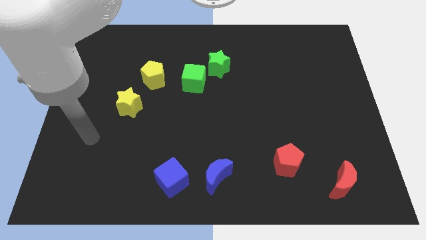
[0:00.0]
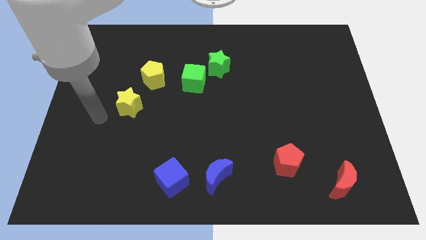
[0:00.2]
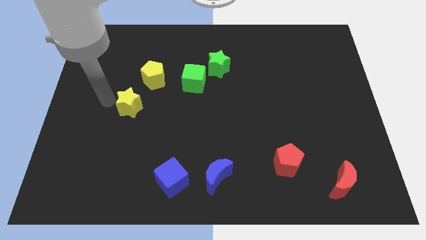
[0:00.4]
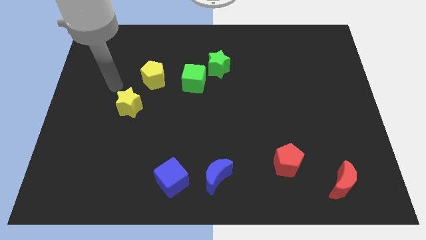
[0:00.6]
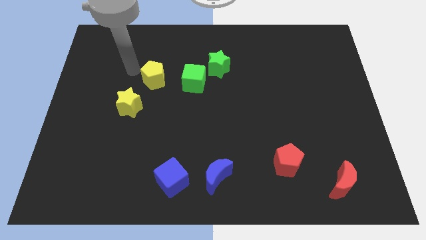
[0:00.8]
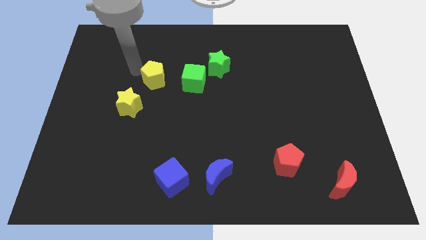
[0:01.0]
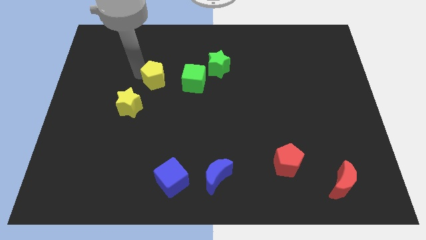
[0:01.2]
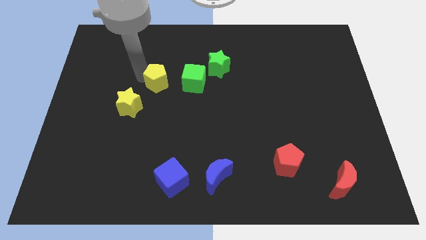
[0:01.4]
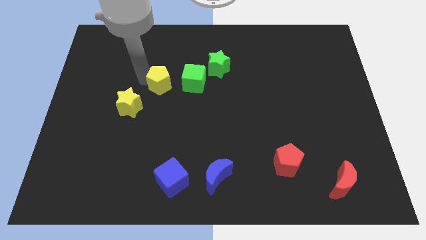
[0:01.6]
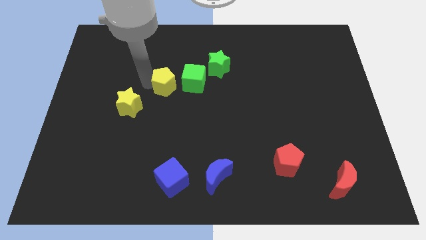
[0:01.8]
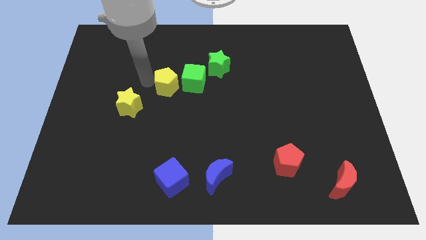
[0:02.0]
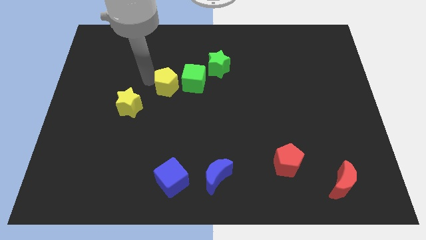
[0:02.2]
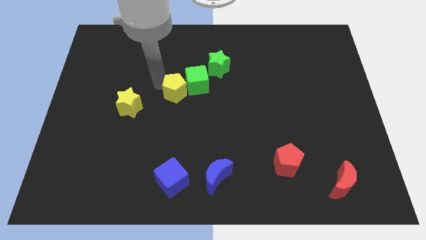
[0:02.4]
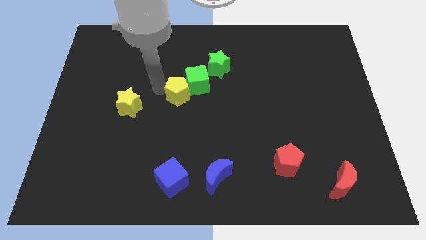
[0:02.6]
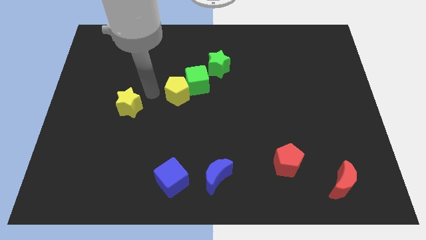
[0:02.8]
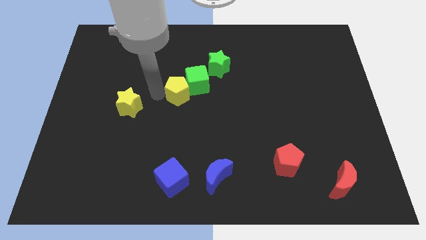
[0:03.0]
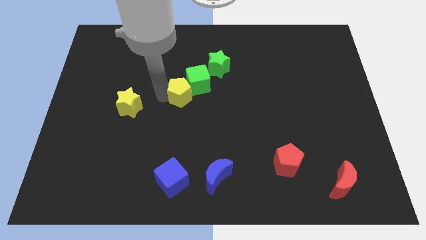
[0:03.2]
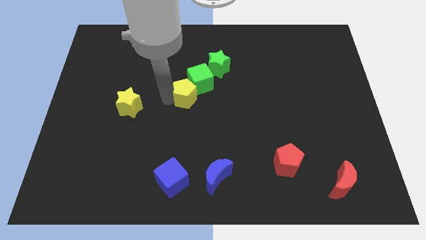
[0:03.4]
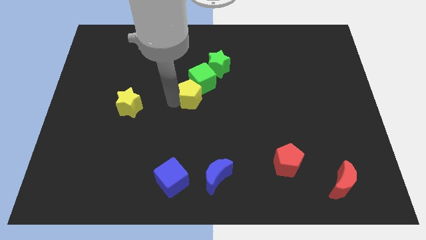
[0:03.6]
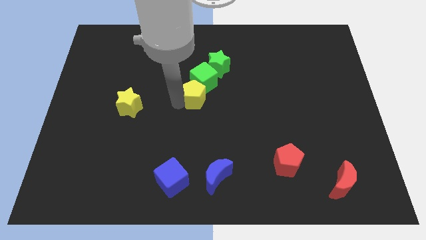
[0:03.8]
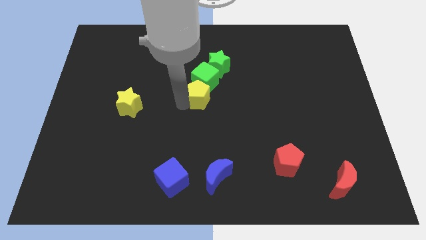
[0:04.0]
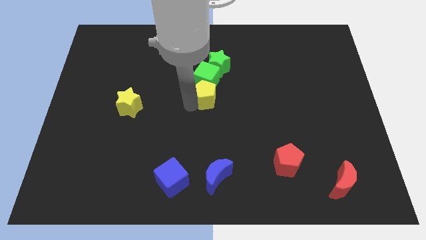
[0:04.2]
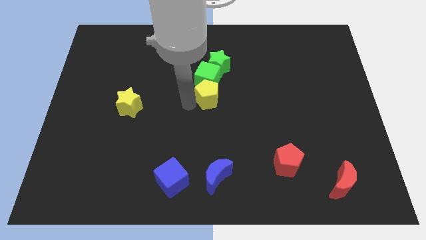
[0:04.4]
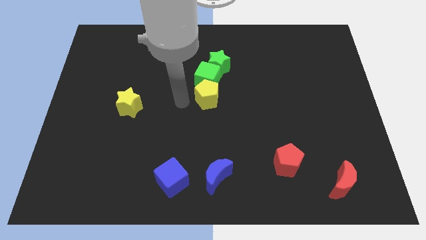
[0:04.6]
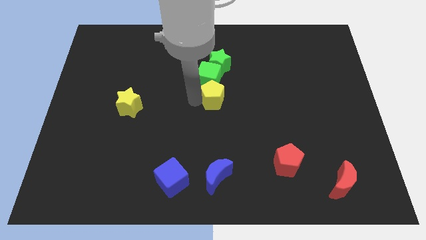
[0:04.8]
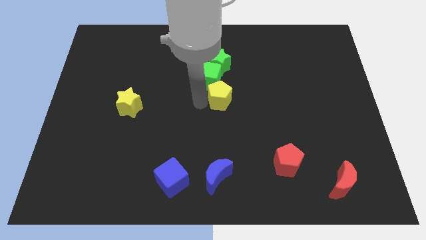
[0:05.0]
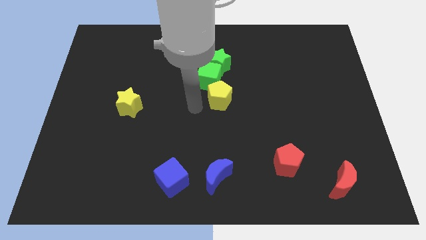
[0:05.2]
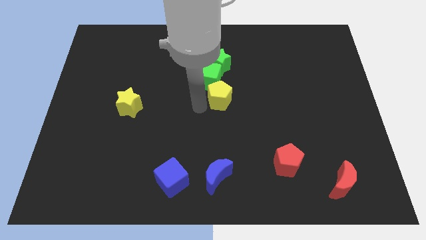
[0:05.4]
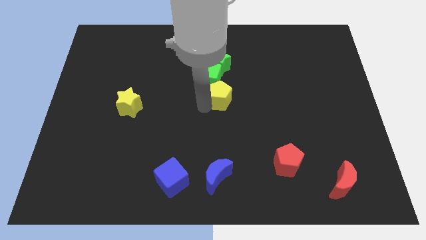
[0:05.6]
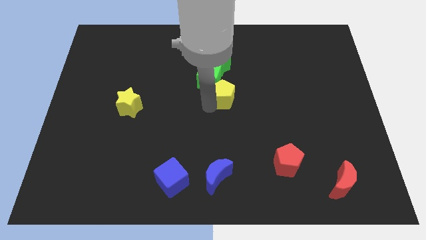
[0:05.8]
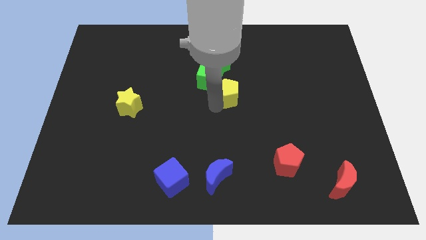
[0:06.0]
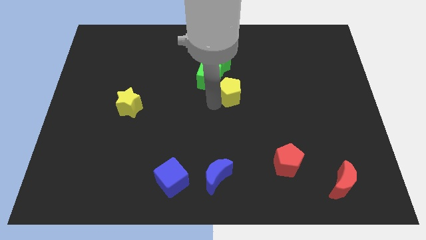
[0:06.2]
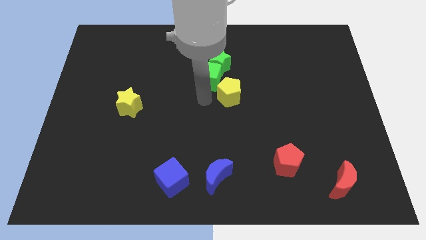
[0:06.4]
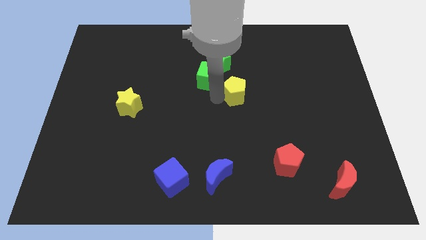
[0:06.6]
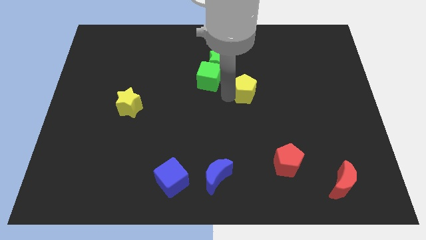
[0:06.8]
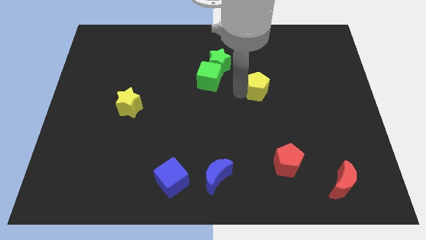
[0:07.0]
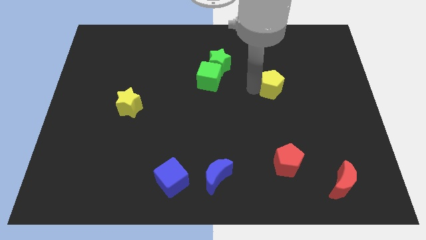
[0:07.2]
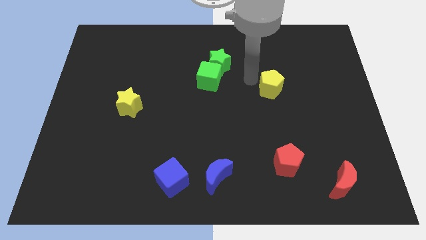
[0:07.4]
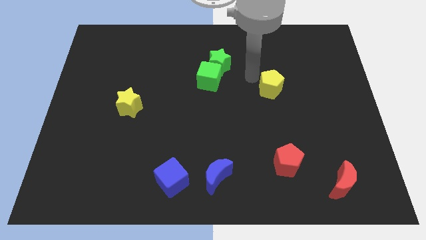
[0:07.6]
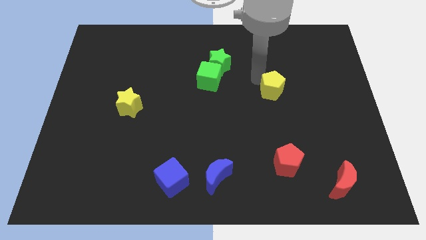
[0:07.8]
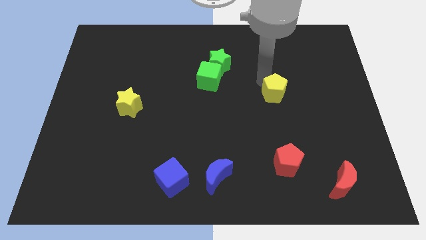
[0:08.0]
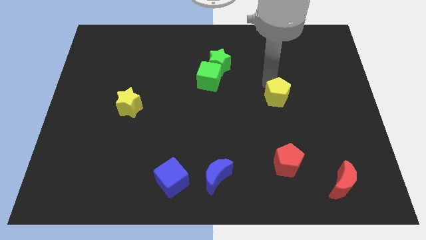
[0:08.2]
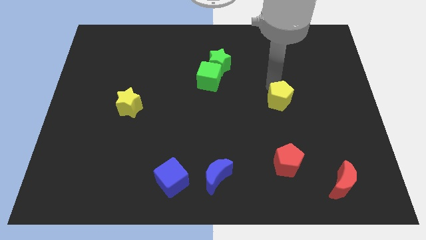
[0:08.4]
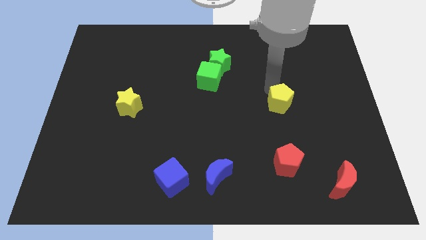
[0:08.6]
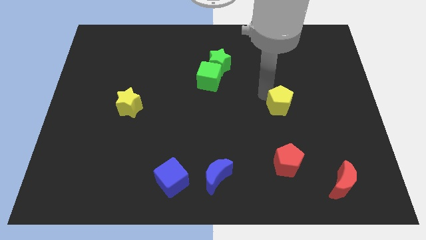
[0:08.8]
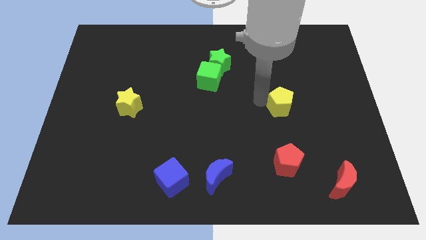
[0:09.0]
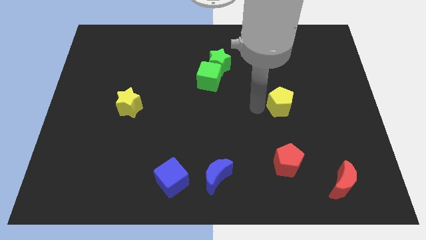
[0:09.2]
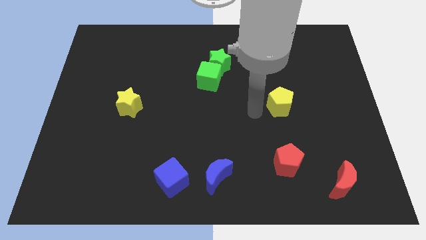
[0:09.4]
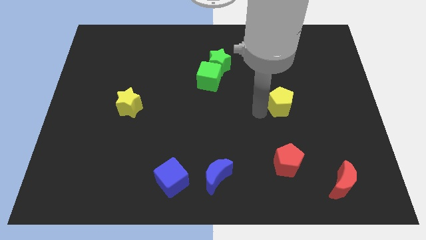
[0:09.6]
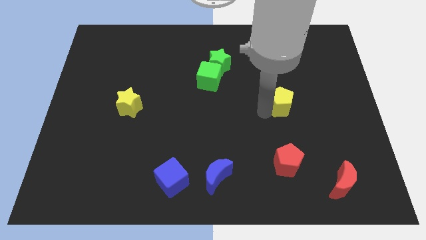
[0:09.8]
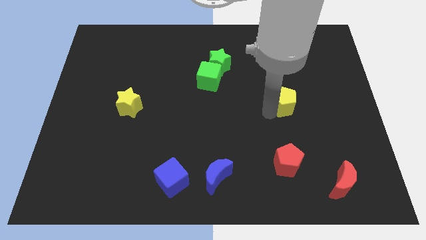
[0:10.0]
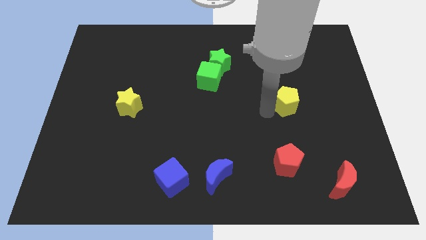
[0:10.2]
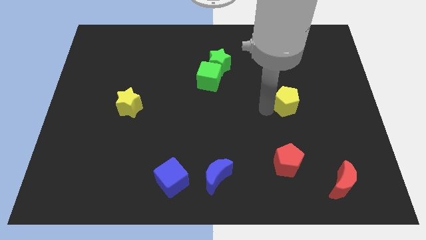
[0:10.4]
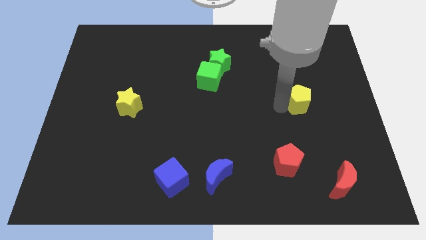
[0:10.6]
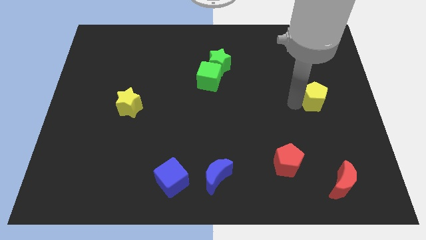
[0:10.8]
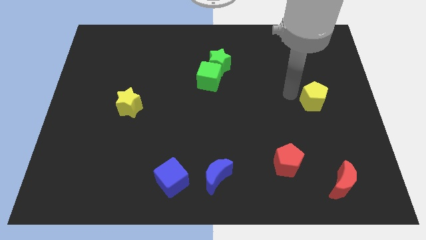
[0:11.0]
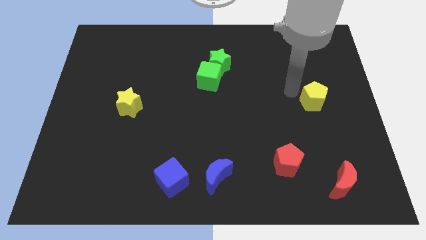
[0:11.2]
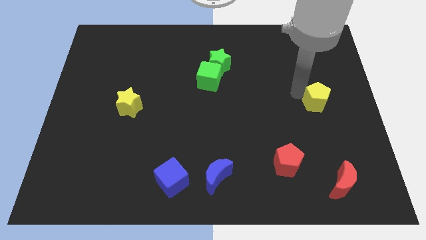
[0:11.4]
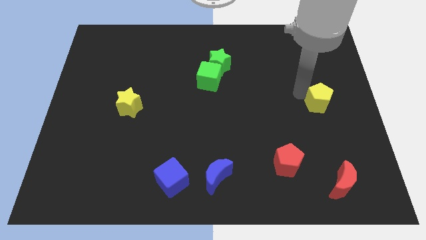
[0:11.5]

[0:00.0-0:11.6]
slide the yellow pentagon to the right side

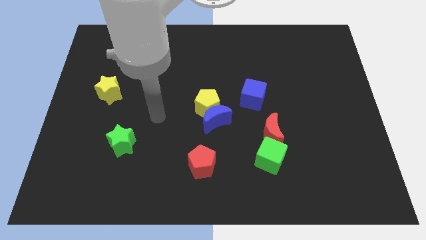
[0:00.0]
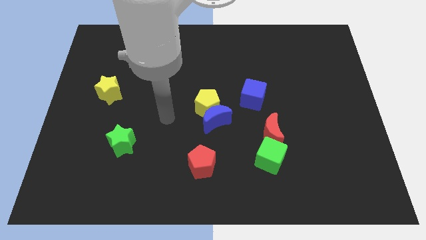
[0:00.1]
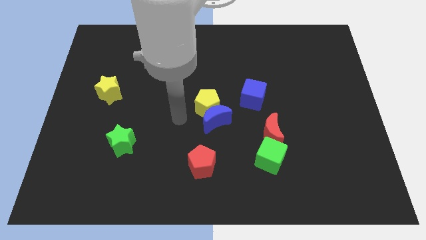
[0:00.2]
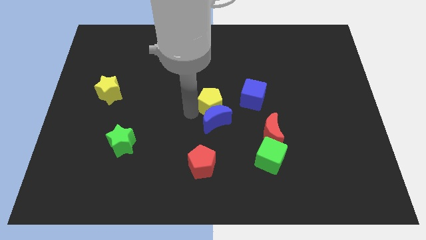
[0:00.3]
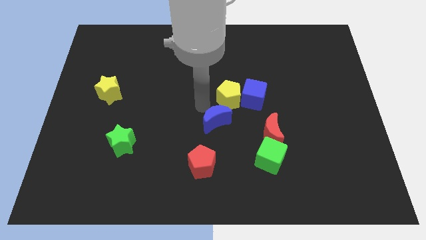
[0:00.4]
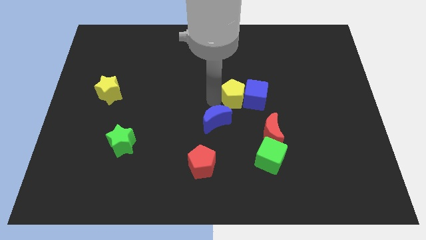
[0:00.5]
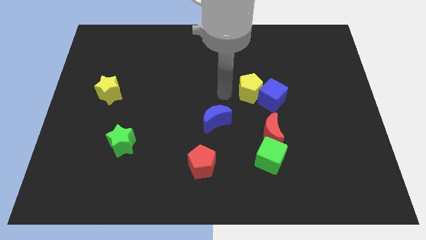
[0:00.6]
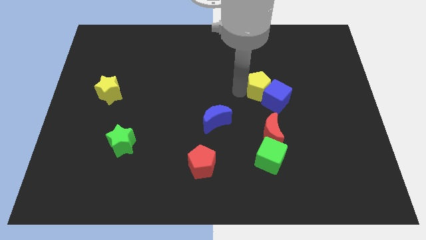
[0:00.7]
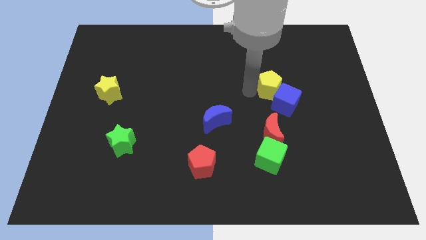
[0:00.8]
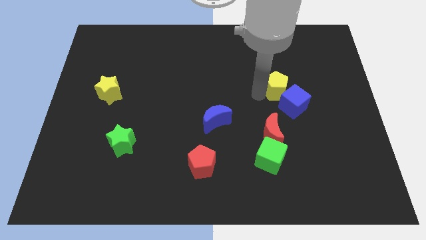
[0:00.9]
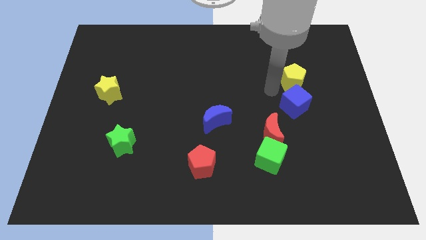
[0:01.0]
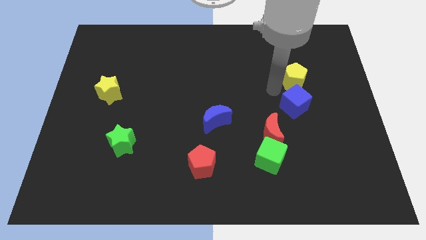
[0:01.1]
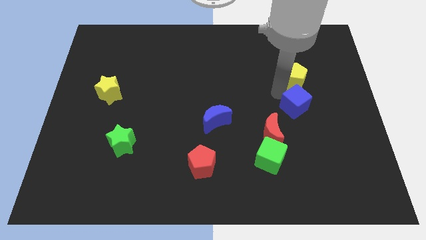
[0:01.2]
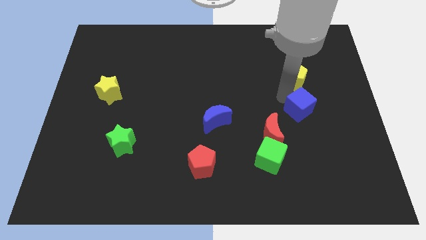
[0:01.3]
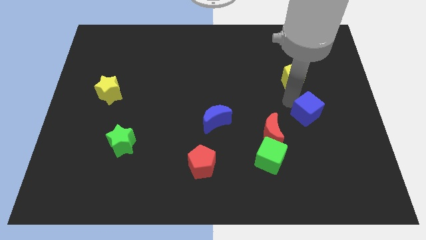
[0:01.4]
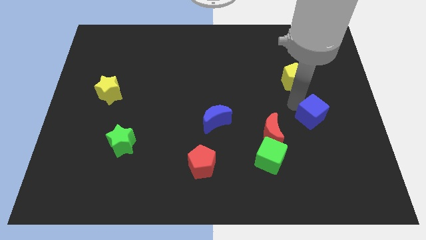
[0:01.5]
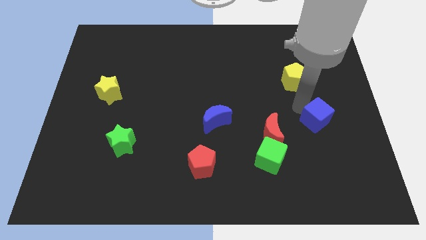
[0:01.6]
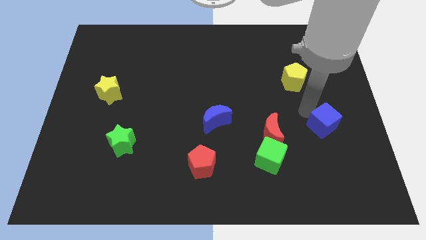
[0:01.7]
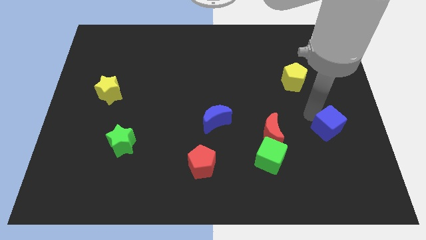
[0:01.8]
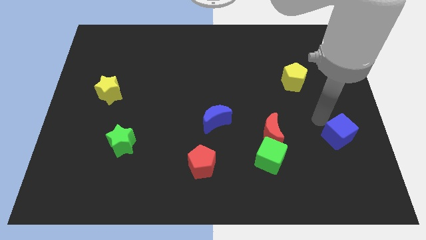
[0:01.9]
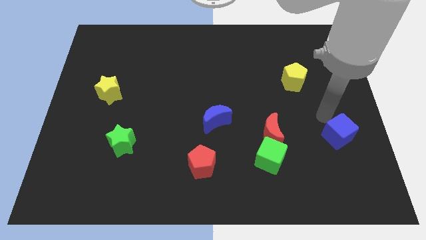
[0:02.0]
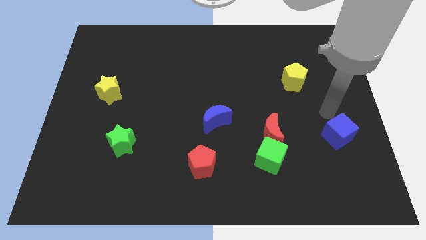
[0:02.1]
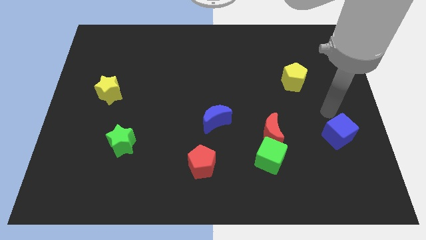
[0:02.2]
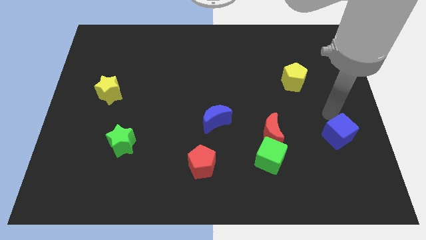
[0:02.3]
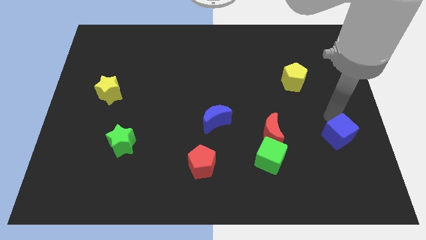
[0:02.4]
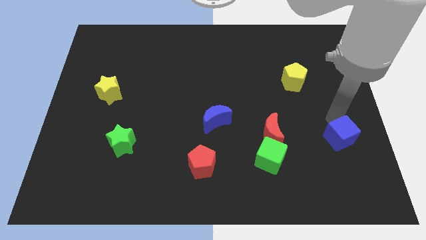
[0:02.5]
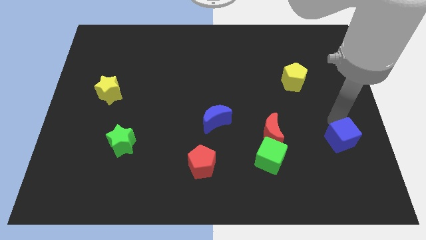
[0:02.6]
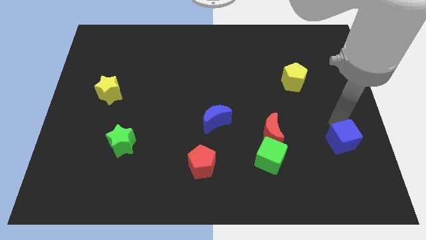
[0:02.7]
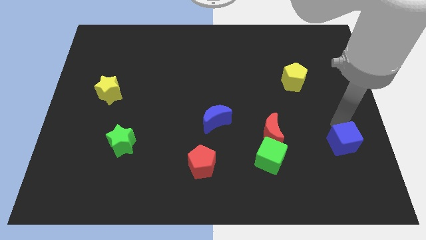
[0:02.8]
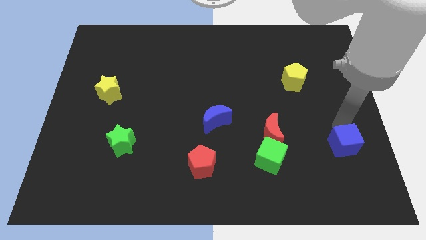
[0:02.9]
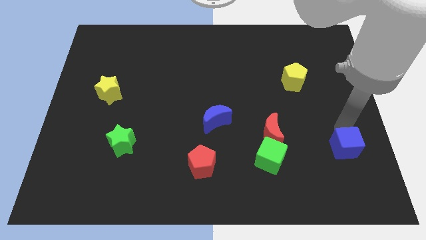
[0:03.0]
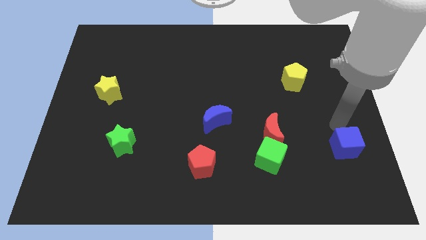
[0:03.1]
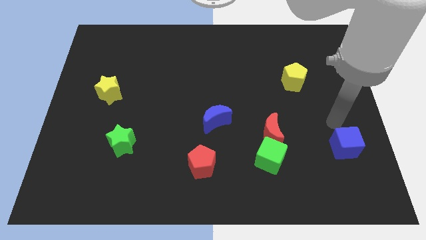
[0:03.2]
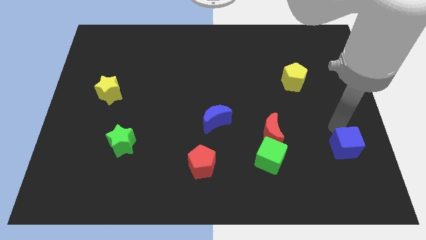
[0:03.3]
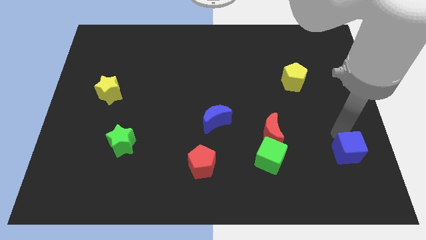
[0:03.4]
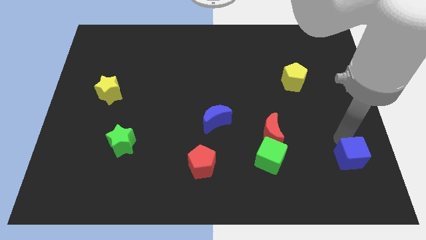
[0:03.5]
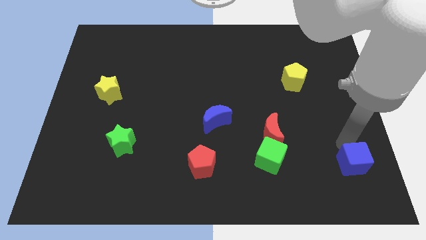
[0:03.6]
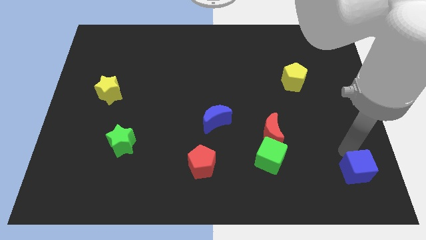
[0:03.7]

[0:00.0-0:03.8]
put the blue cube to the bottom right corner
